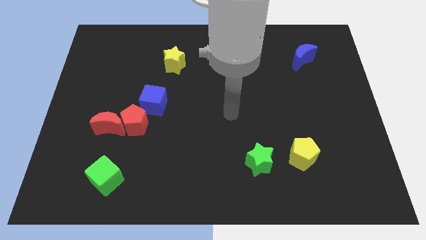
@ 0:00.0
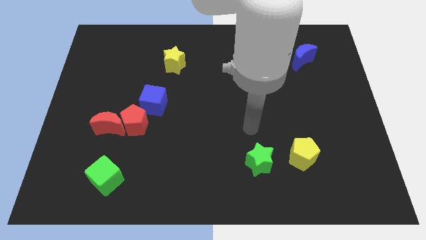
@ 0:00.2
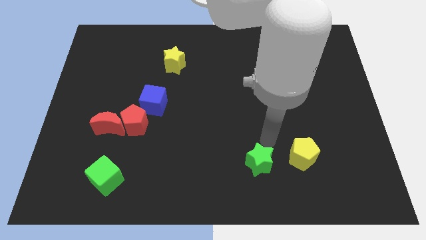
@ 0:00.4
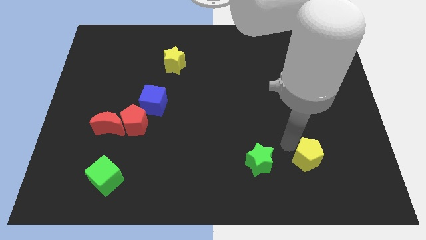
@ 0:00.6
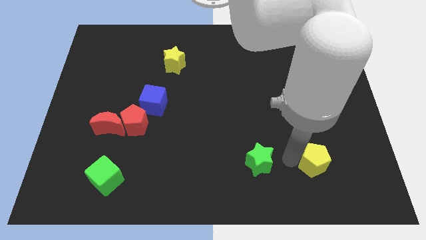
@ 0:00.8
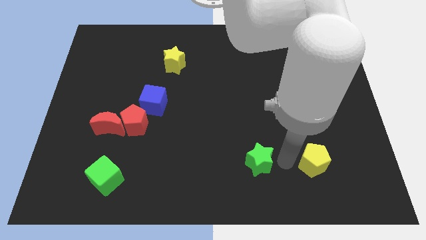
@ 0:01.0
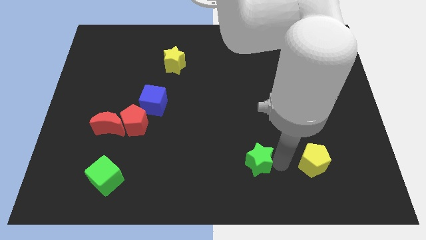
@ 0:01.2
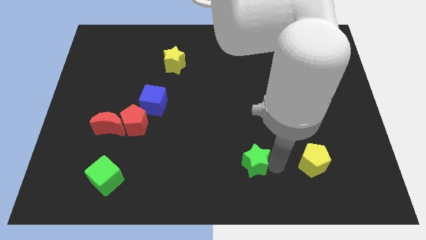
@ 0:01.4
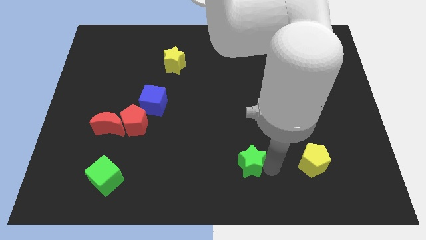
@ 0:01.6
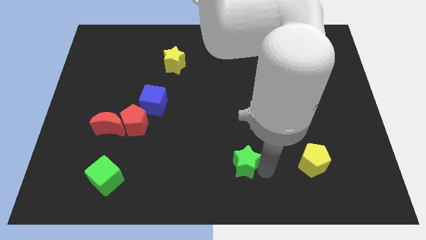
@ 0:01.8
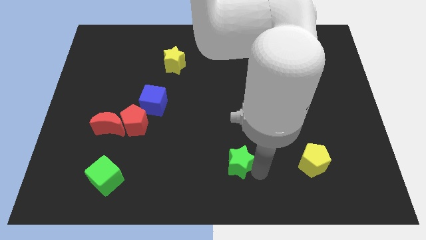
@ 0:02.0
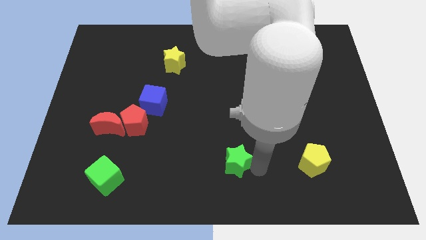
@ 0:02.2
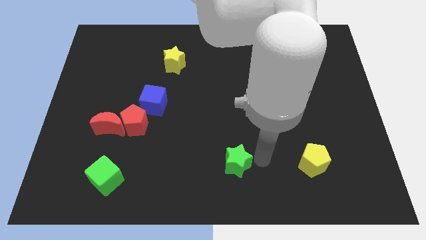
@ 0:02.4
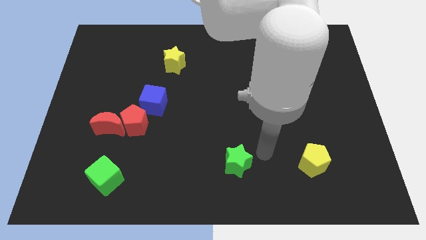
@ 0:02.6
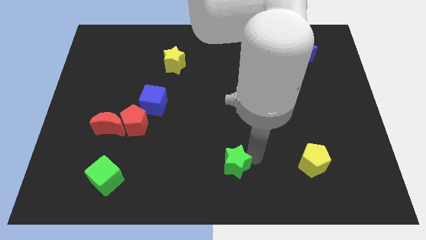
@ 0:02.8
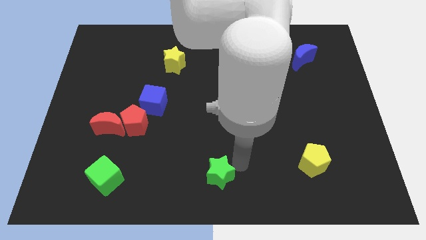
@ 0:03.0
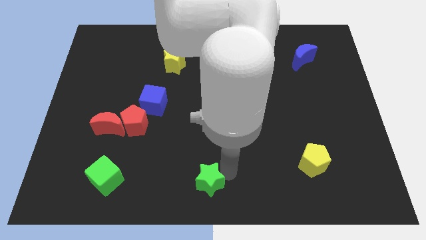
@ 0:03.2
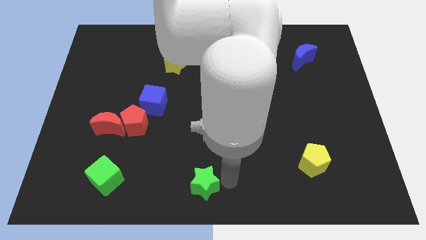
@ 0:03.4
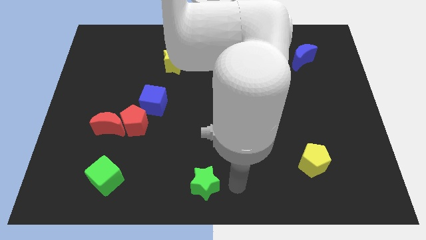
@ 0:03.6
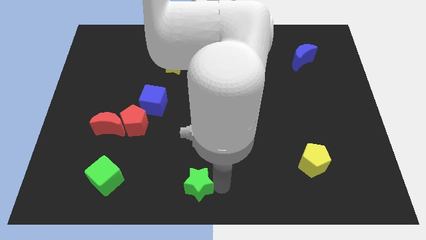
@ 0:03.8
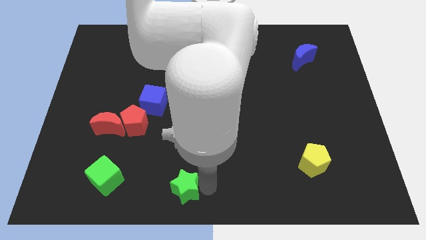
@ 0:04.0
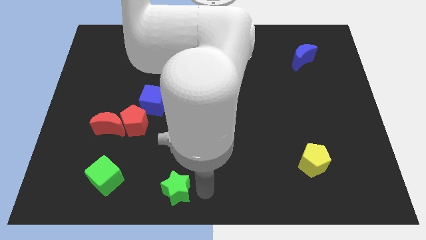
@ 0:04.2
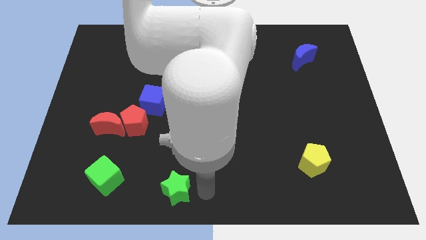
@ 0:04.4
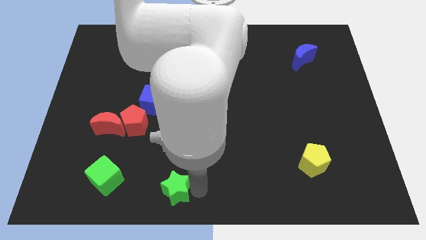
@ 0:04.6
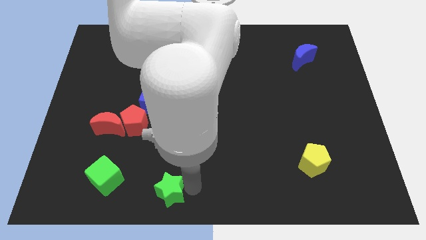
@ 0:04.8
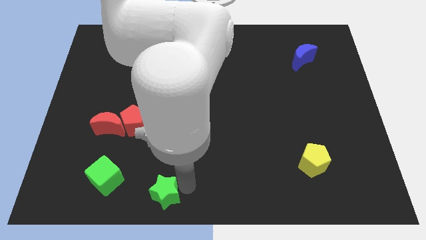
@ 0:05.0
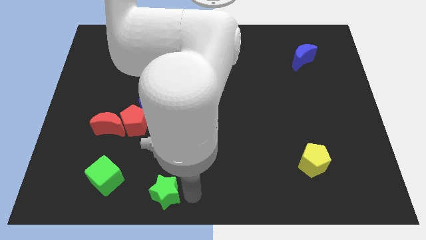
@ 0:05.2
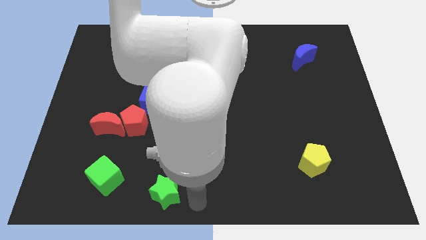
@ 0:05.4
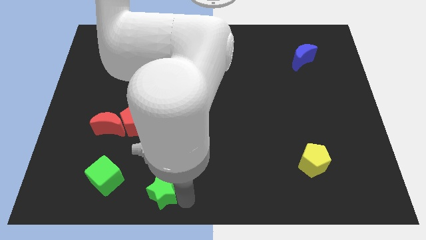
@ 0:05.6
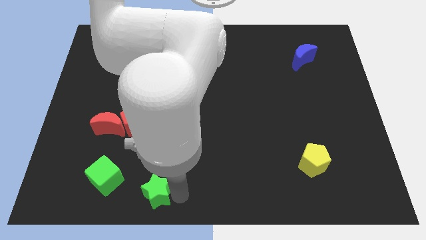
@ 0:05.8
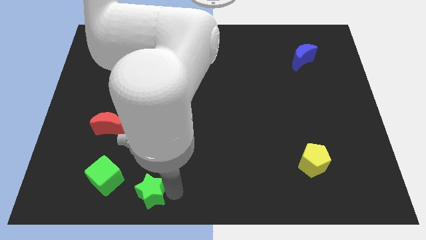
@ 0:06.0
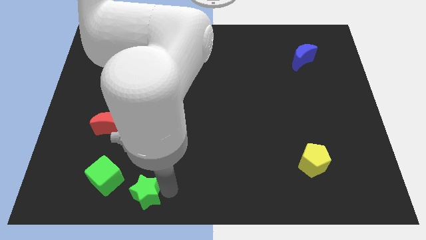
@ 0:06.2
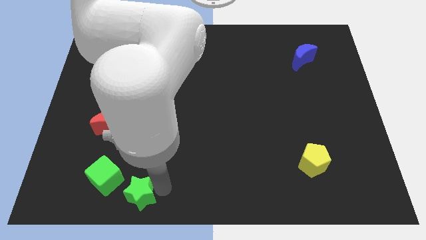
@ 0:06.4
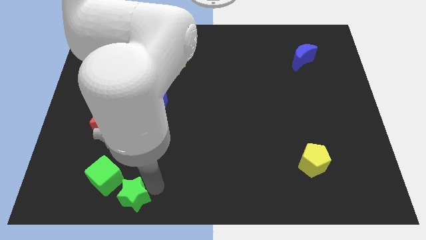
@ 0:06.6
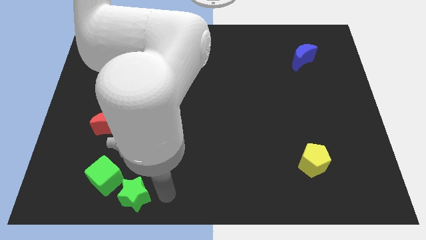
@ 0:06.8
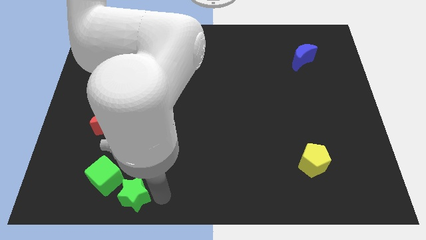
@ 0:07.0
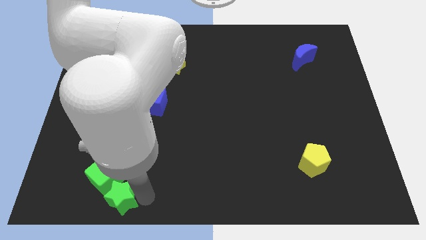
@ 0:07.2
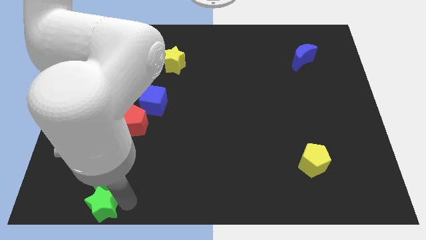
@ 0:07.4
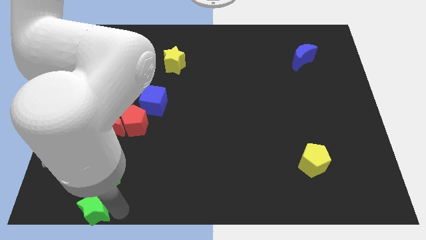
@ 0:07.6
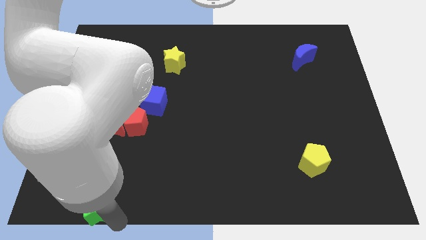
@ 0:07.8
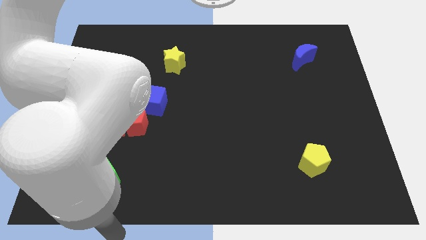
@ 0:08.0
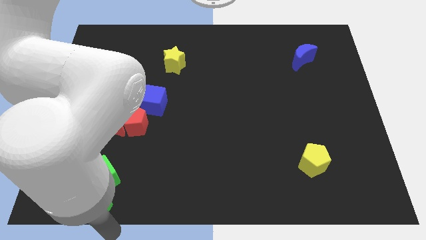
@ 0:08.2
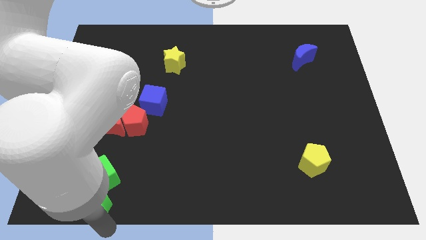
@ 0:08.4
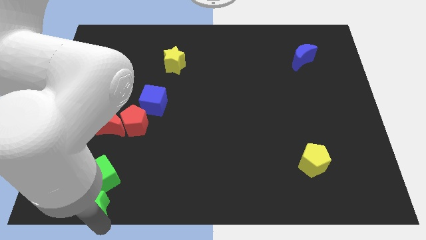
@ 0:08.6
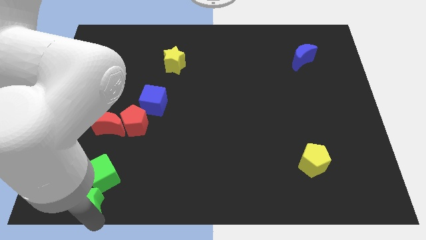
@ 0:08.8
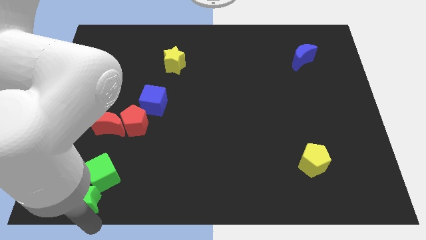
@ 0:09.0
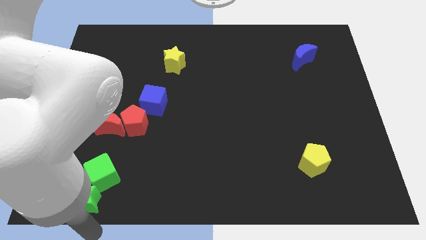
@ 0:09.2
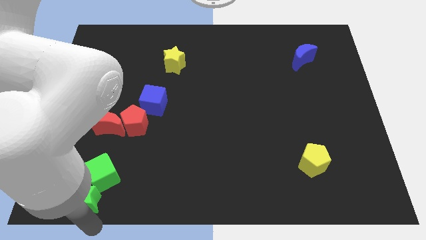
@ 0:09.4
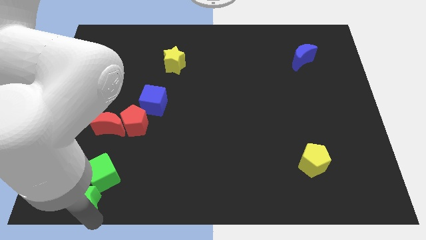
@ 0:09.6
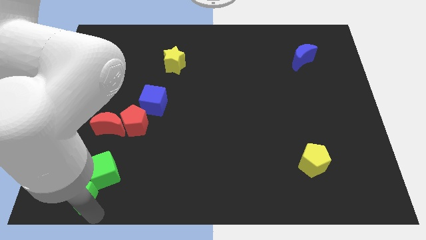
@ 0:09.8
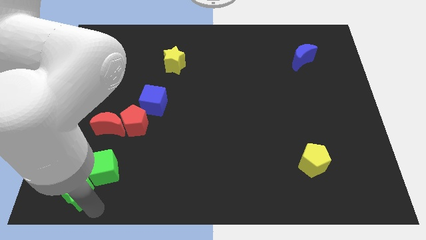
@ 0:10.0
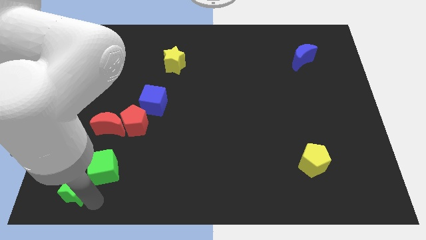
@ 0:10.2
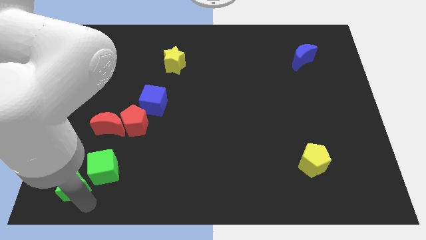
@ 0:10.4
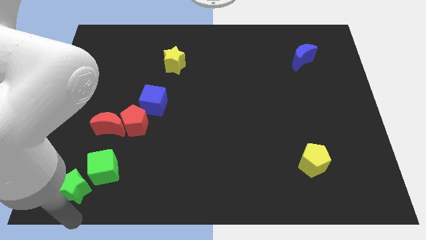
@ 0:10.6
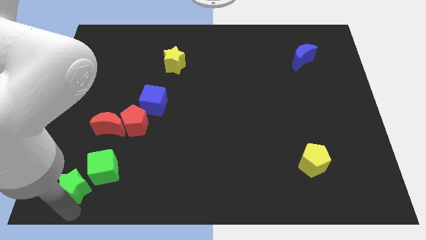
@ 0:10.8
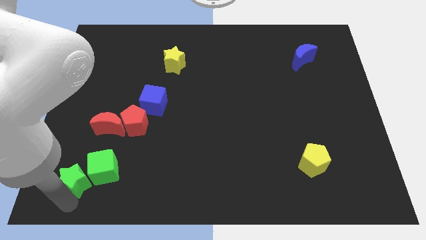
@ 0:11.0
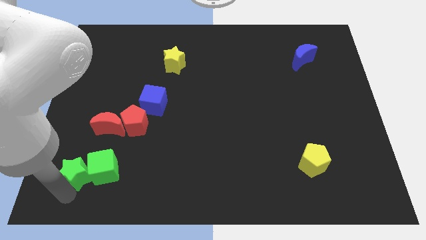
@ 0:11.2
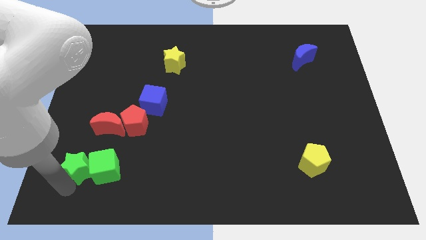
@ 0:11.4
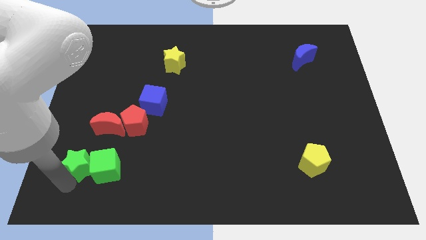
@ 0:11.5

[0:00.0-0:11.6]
put the green star to the bottom left of the red moon

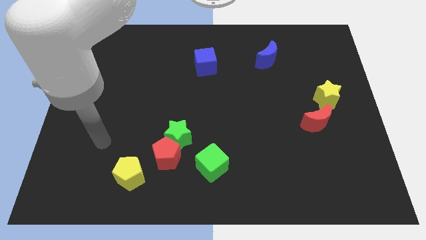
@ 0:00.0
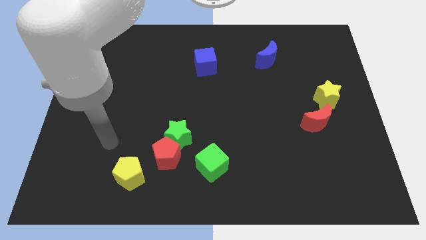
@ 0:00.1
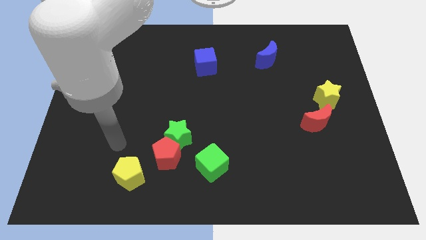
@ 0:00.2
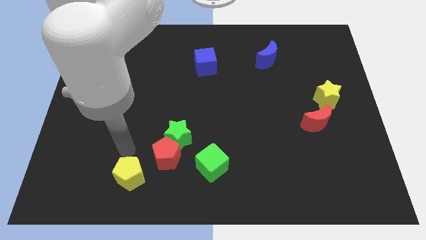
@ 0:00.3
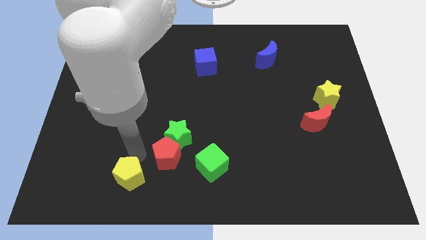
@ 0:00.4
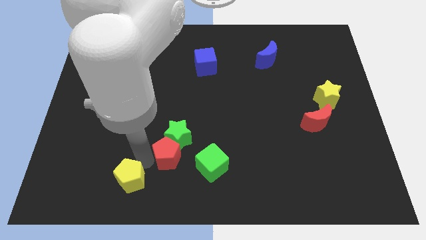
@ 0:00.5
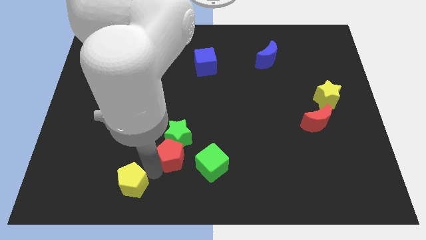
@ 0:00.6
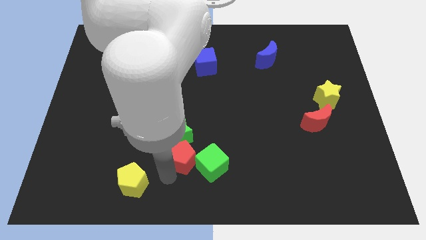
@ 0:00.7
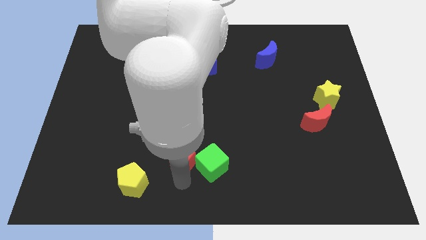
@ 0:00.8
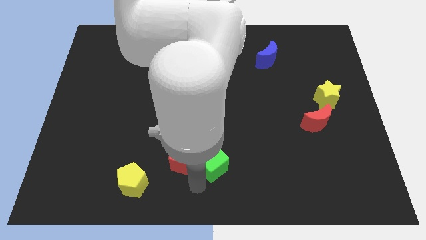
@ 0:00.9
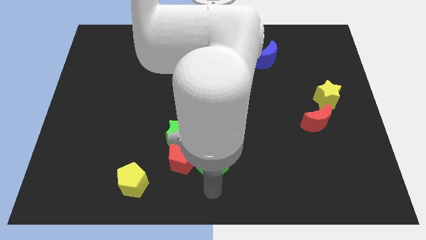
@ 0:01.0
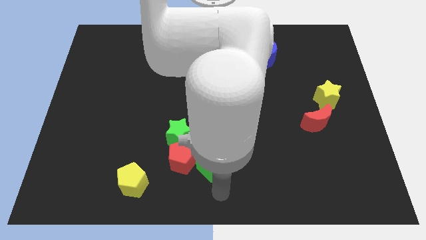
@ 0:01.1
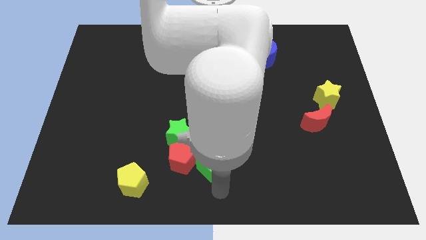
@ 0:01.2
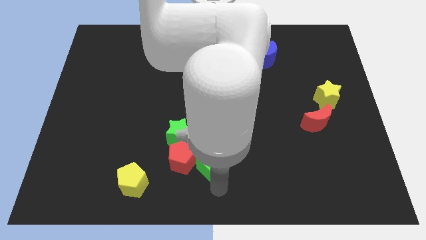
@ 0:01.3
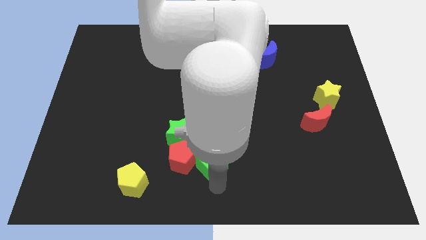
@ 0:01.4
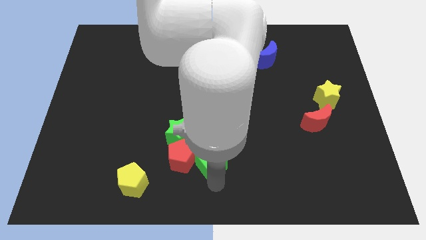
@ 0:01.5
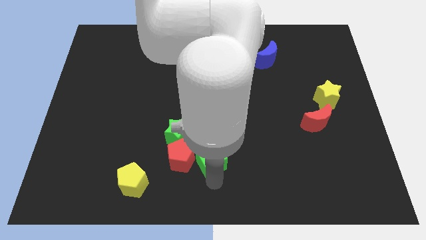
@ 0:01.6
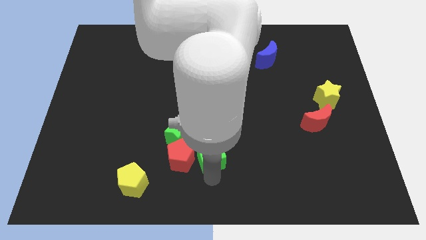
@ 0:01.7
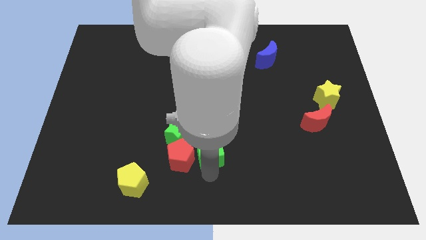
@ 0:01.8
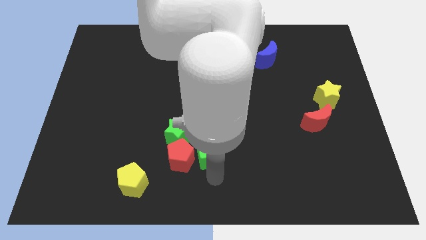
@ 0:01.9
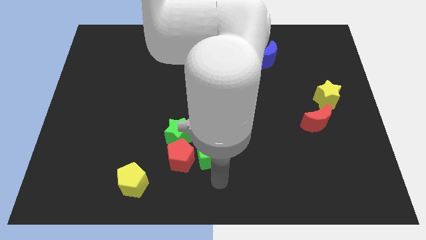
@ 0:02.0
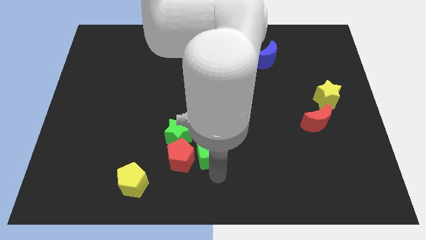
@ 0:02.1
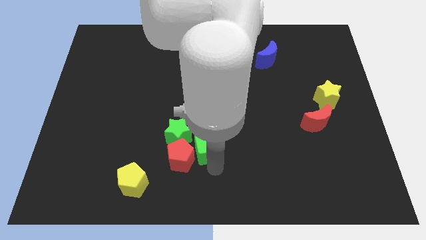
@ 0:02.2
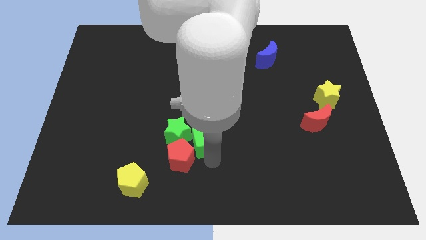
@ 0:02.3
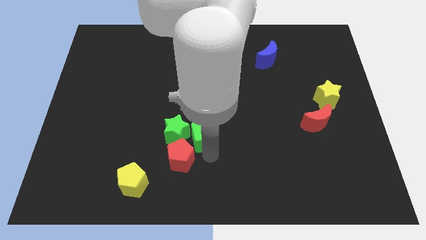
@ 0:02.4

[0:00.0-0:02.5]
put the green cube above the red pentagon
